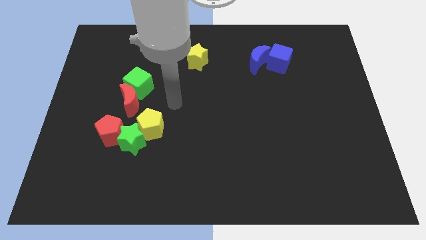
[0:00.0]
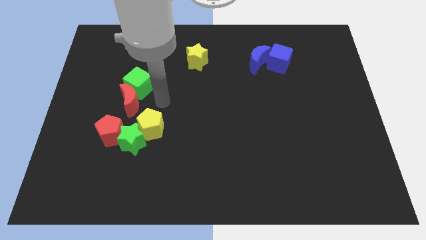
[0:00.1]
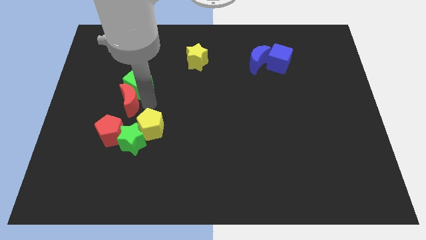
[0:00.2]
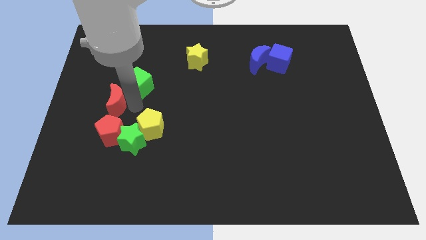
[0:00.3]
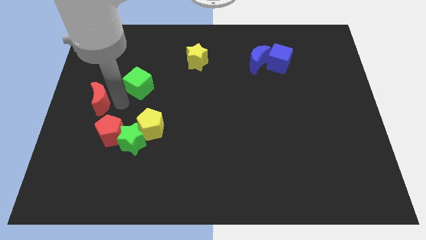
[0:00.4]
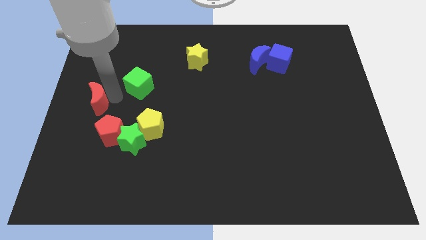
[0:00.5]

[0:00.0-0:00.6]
separate the green cube from the red moon

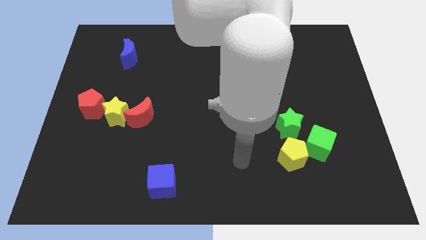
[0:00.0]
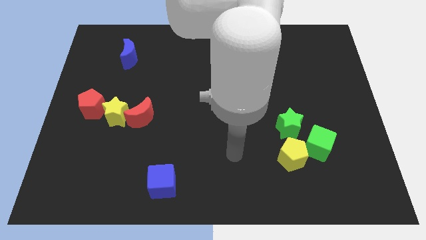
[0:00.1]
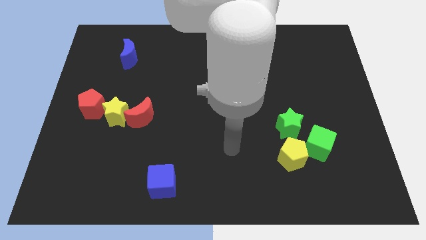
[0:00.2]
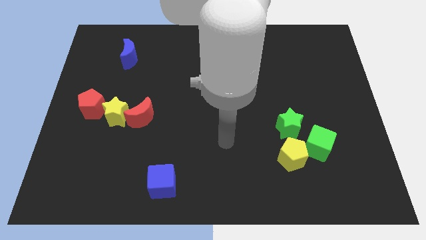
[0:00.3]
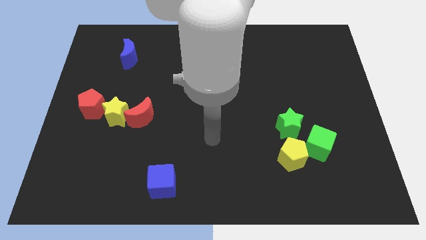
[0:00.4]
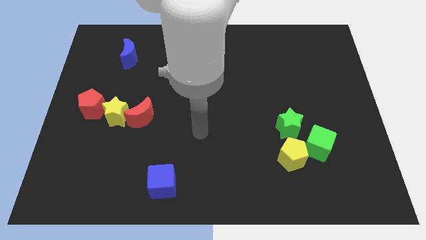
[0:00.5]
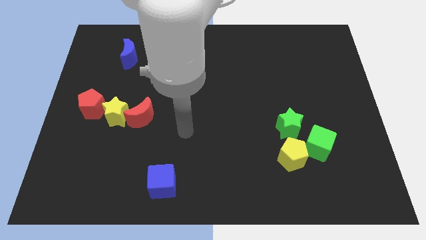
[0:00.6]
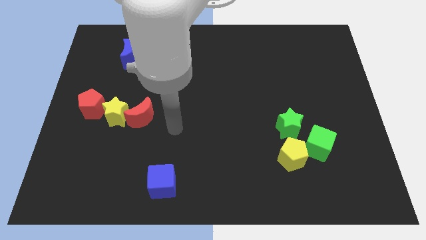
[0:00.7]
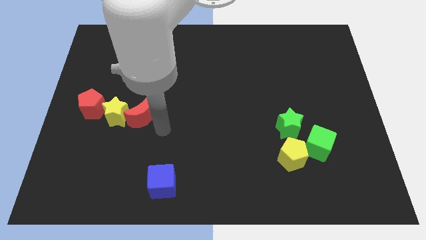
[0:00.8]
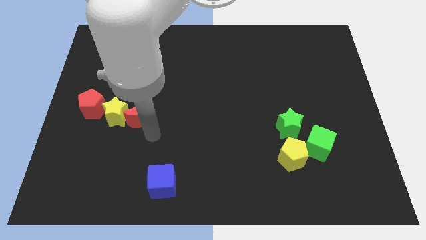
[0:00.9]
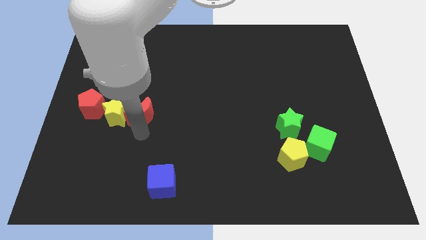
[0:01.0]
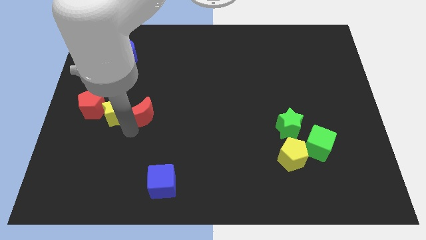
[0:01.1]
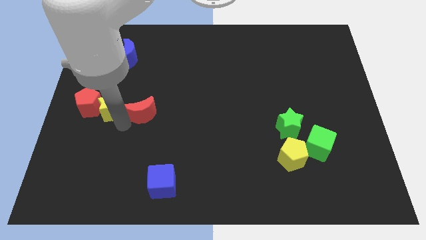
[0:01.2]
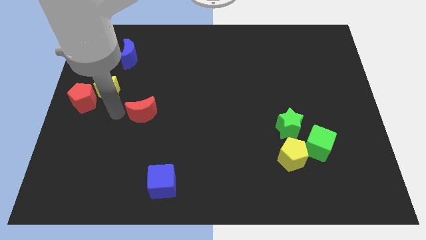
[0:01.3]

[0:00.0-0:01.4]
pull the red moon apart from the yellow star

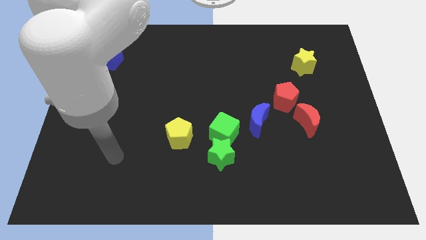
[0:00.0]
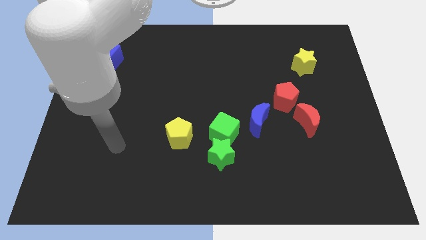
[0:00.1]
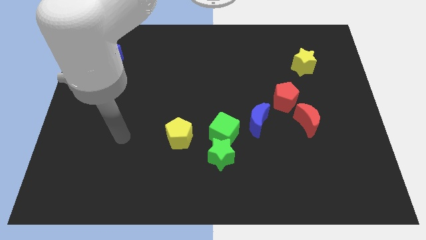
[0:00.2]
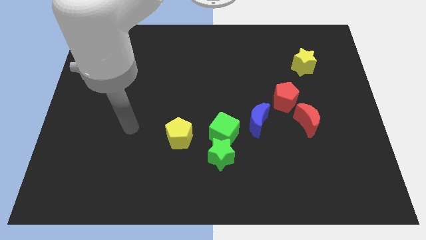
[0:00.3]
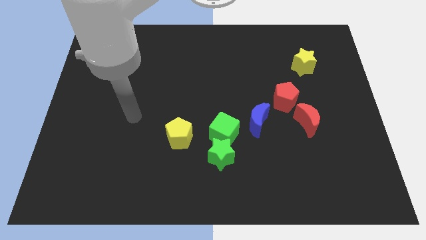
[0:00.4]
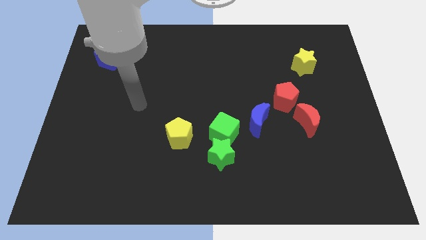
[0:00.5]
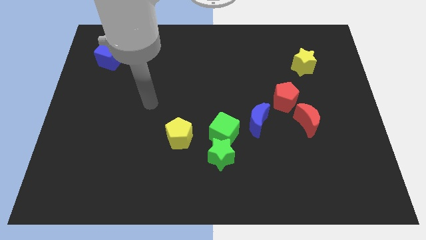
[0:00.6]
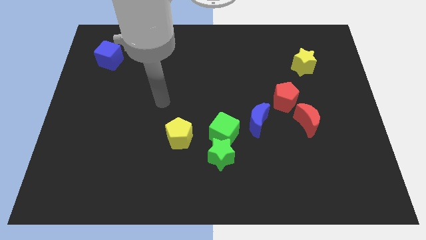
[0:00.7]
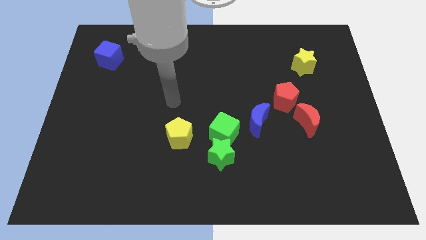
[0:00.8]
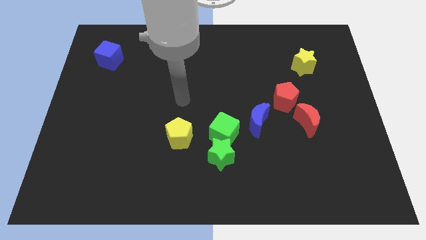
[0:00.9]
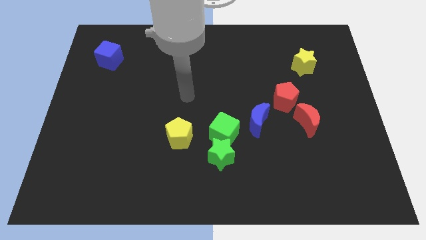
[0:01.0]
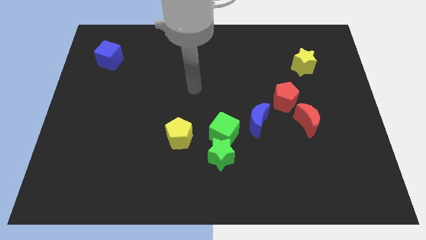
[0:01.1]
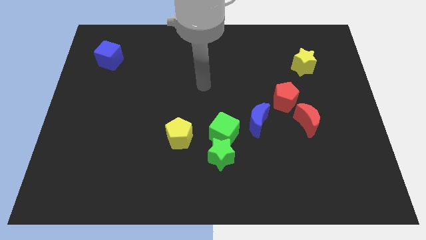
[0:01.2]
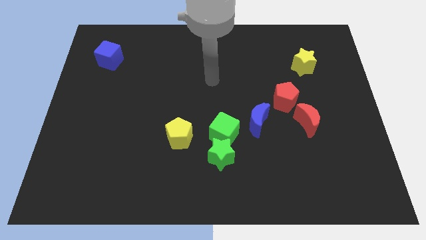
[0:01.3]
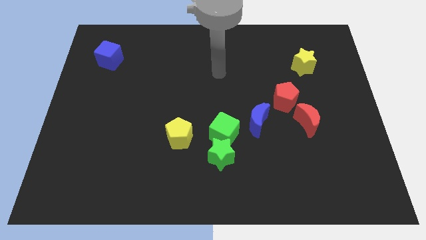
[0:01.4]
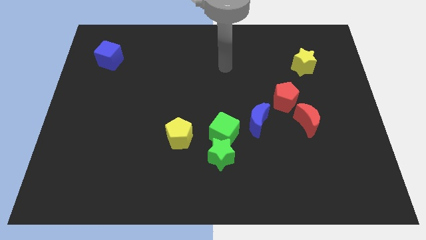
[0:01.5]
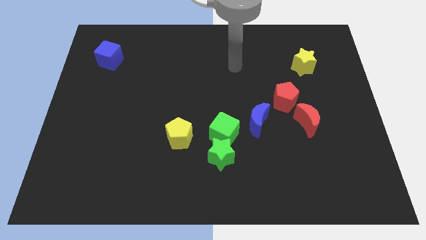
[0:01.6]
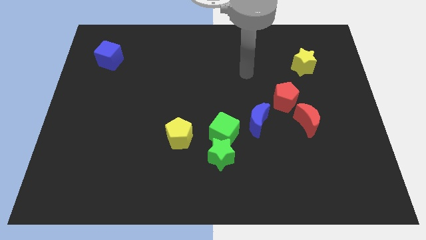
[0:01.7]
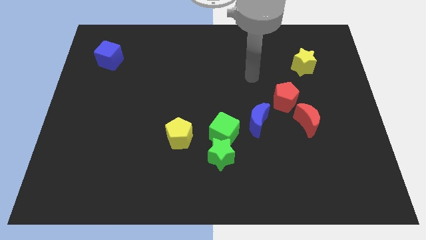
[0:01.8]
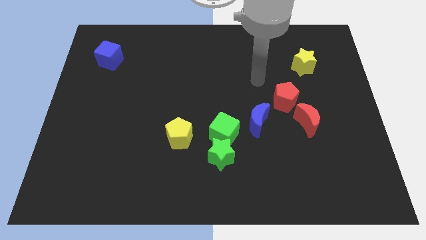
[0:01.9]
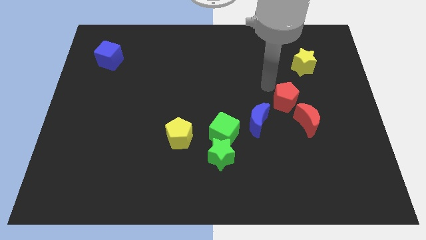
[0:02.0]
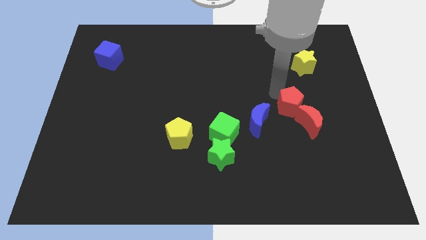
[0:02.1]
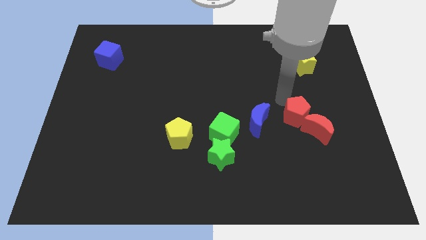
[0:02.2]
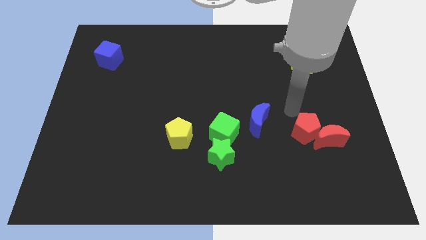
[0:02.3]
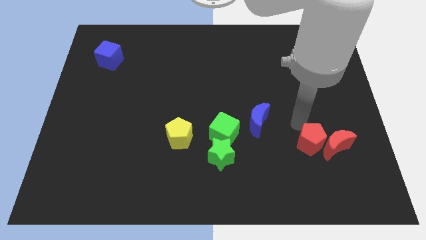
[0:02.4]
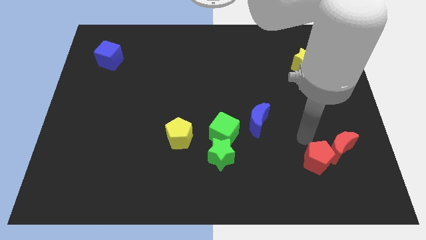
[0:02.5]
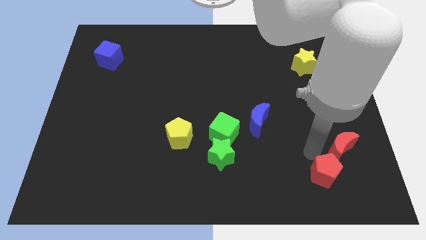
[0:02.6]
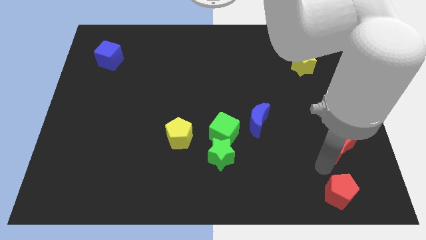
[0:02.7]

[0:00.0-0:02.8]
pull the red moon apart from the red pentagon

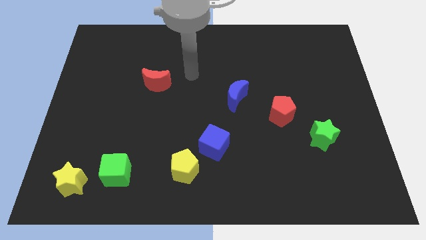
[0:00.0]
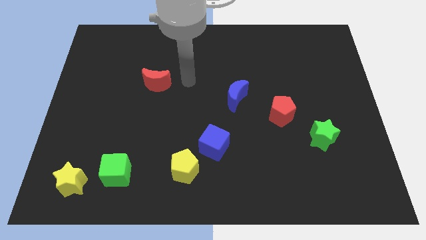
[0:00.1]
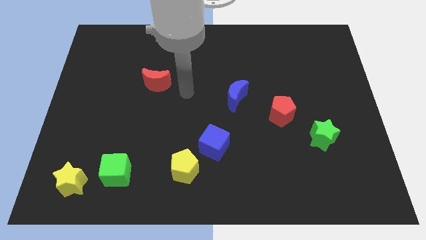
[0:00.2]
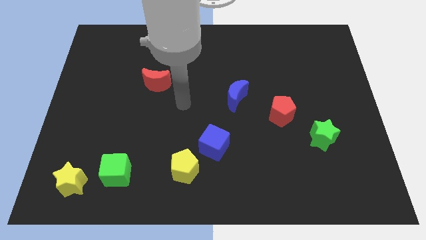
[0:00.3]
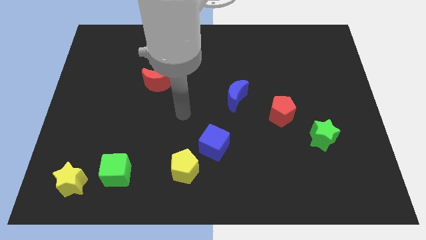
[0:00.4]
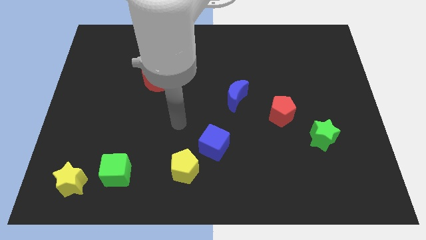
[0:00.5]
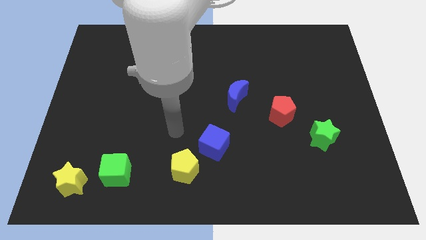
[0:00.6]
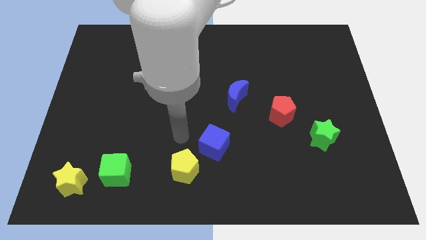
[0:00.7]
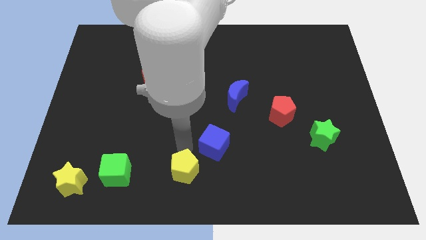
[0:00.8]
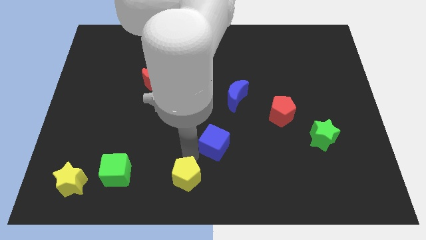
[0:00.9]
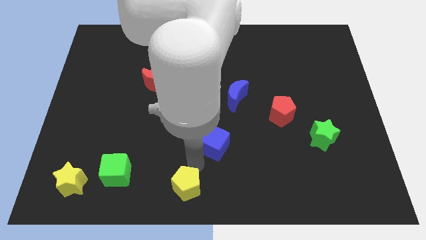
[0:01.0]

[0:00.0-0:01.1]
separate the blue cube from the yellow pentagon

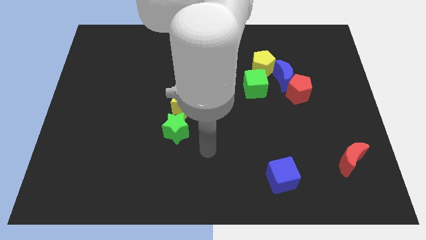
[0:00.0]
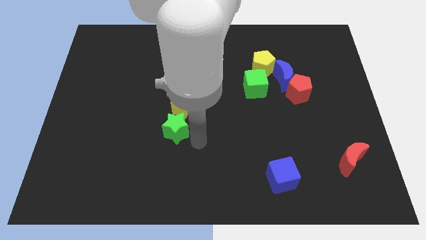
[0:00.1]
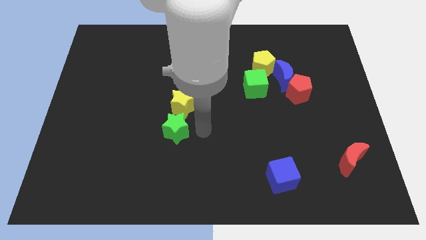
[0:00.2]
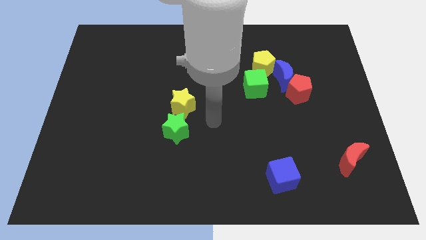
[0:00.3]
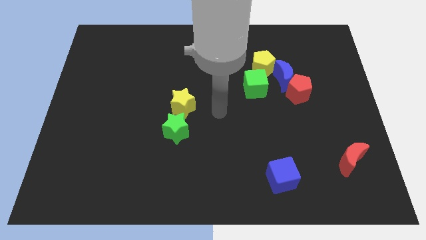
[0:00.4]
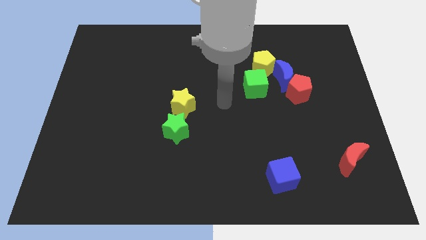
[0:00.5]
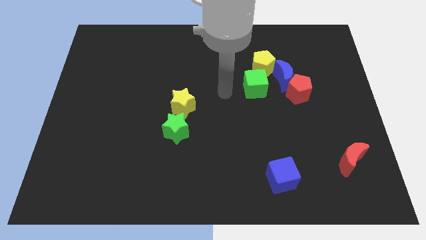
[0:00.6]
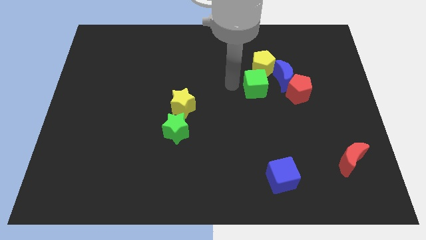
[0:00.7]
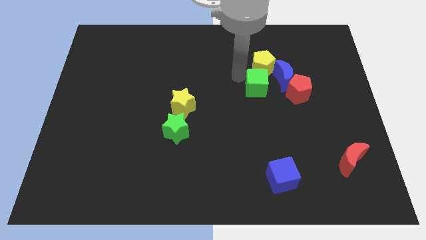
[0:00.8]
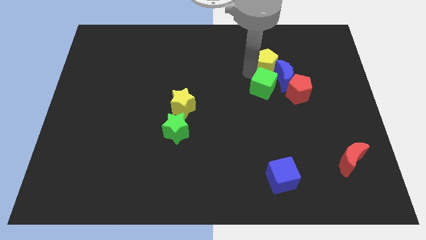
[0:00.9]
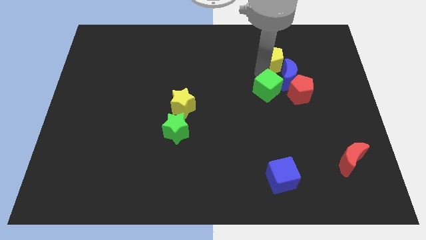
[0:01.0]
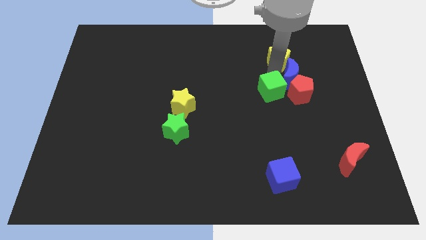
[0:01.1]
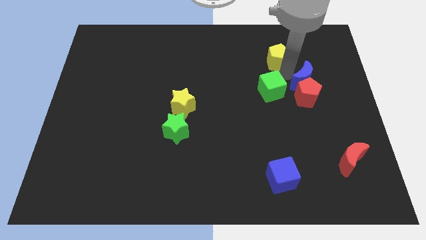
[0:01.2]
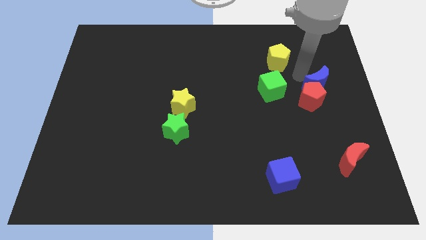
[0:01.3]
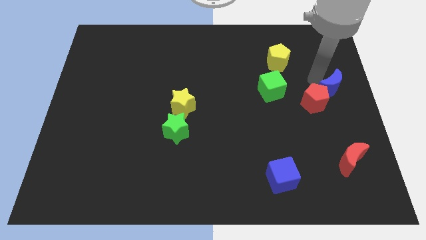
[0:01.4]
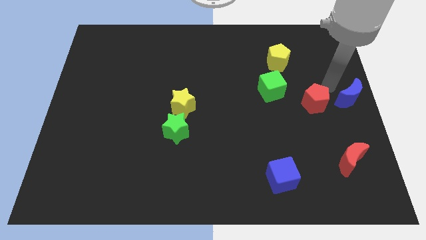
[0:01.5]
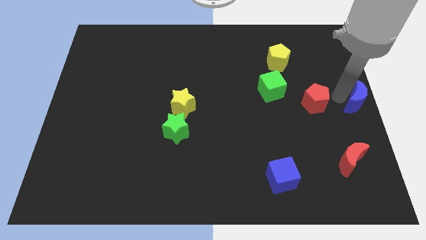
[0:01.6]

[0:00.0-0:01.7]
pull the red pentagon apart from the blue moon

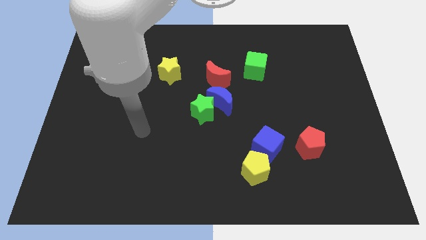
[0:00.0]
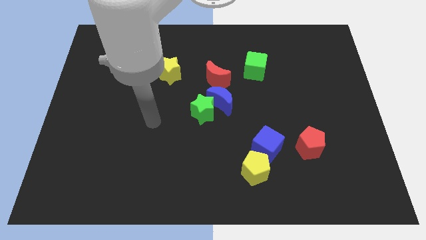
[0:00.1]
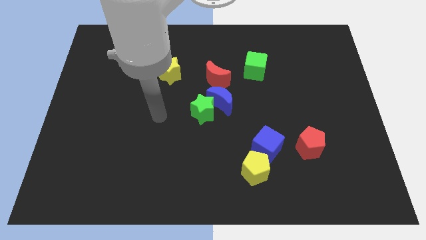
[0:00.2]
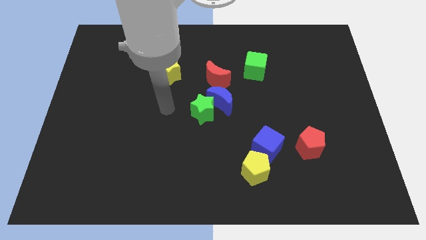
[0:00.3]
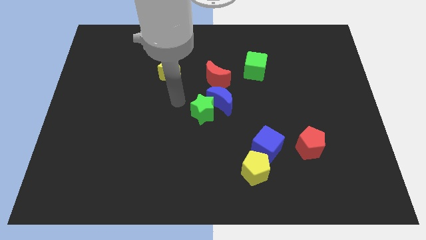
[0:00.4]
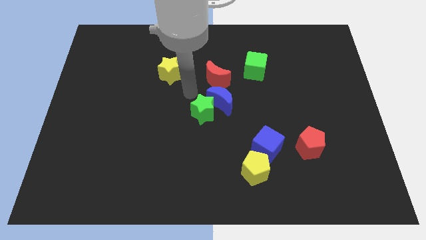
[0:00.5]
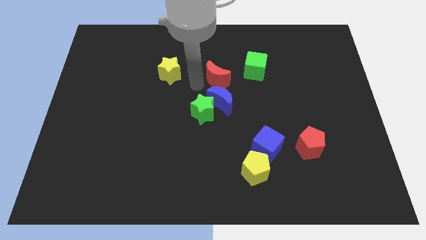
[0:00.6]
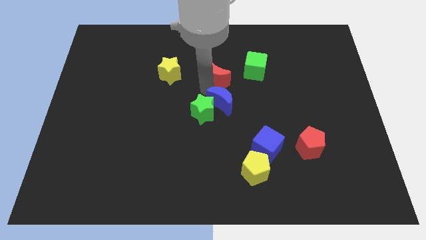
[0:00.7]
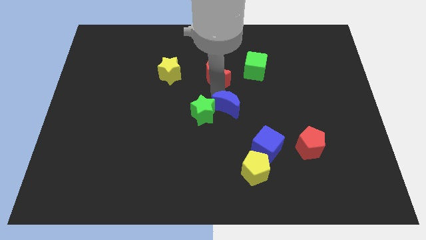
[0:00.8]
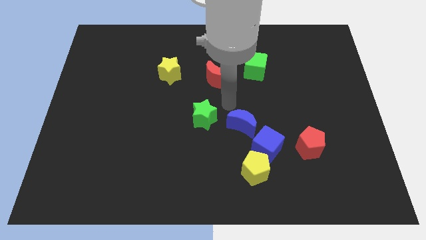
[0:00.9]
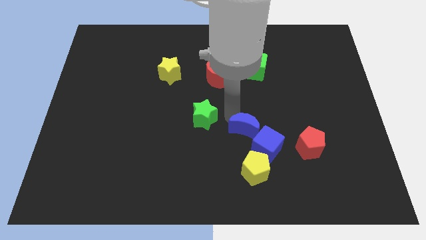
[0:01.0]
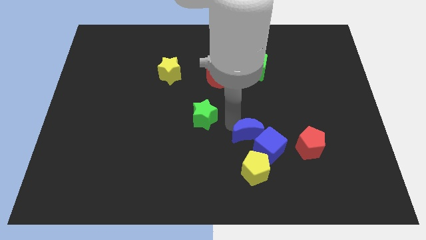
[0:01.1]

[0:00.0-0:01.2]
pull the green star apart from the blue moon

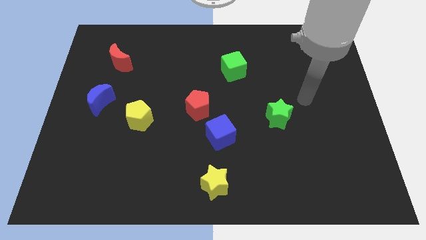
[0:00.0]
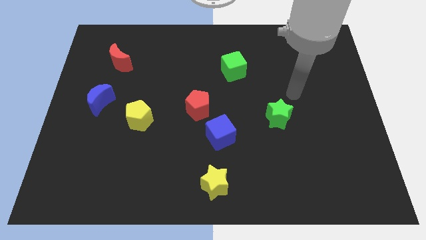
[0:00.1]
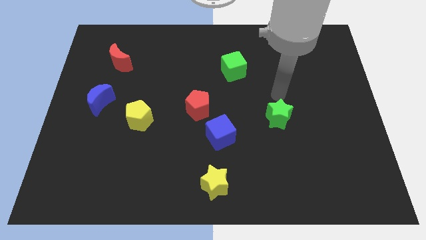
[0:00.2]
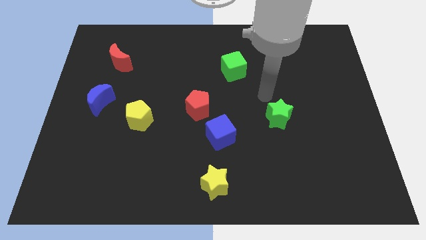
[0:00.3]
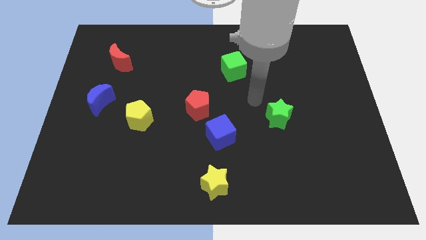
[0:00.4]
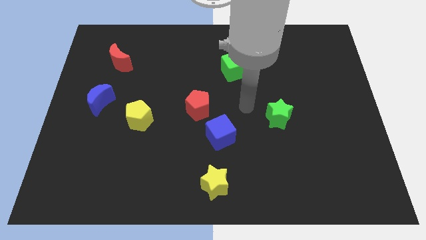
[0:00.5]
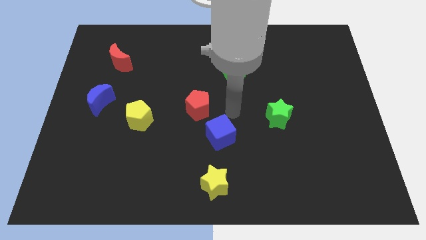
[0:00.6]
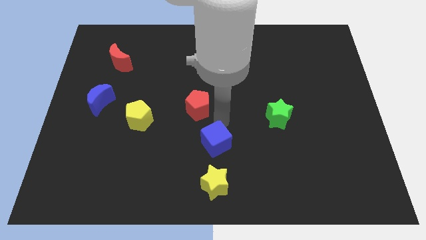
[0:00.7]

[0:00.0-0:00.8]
pull the red pentagon apart from the blue cube
